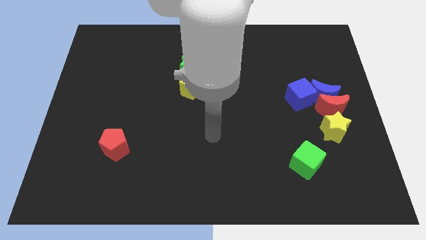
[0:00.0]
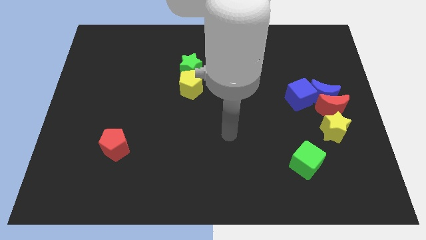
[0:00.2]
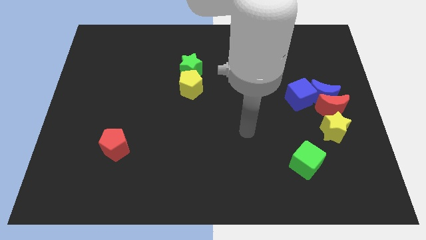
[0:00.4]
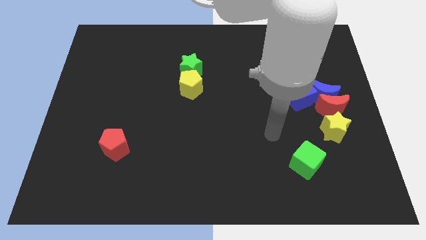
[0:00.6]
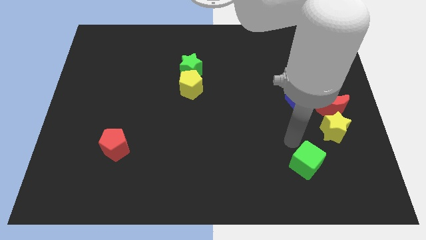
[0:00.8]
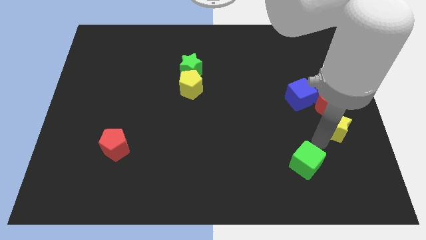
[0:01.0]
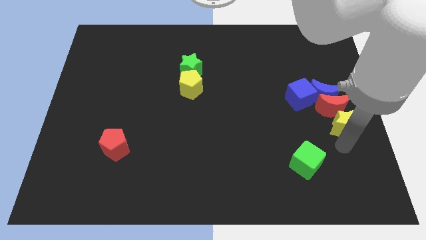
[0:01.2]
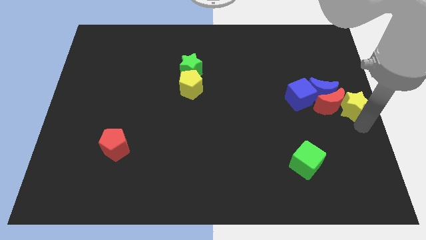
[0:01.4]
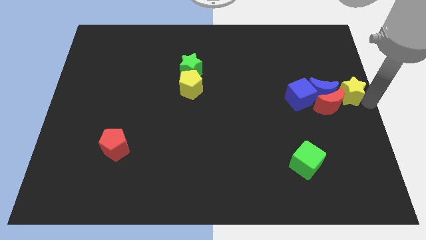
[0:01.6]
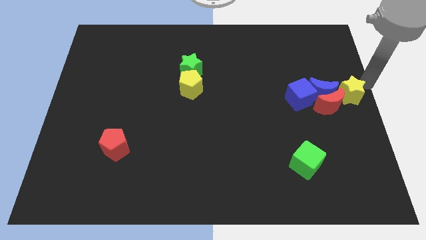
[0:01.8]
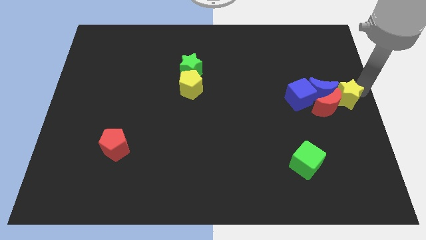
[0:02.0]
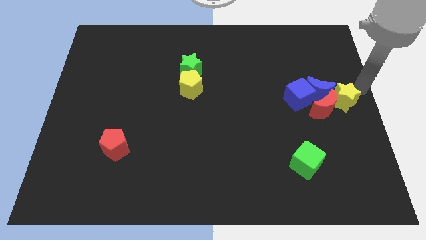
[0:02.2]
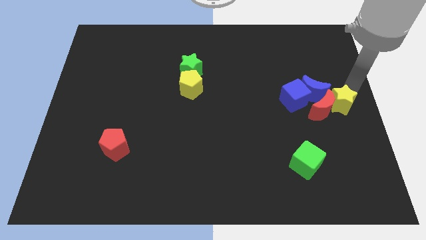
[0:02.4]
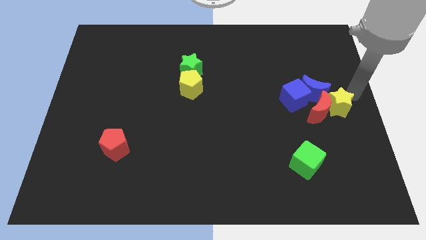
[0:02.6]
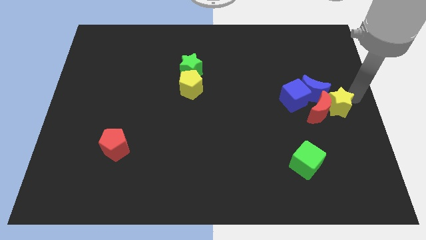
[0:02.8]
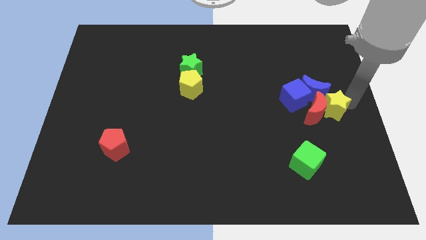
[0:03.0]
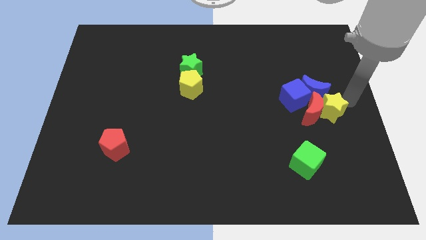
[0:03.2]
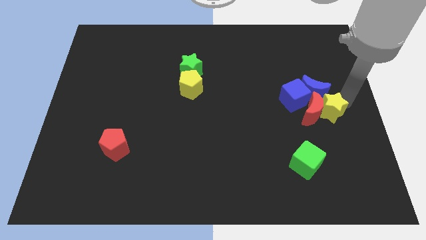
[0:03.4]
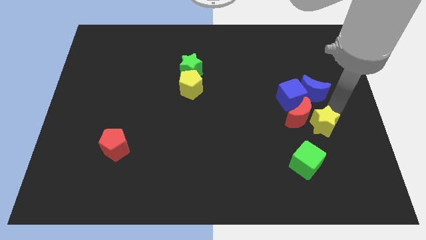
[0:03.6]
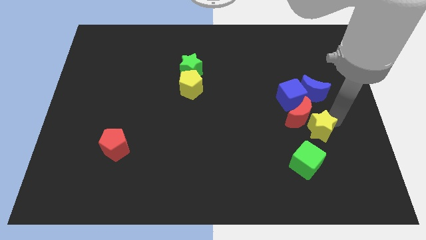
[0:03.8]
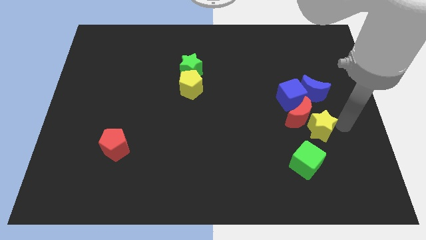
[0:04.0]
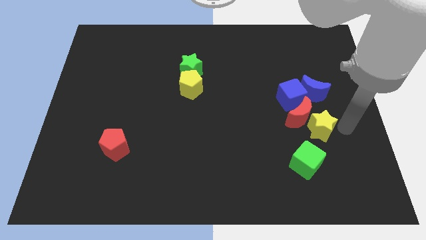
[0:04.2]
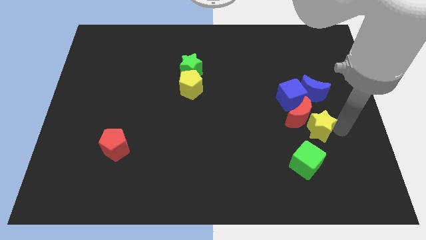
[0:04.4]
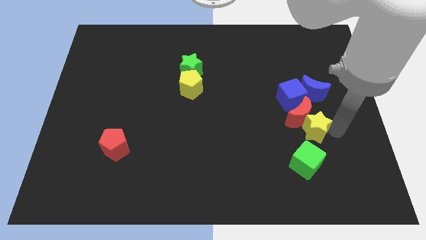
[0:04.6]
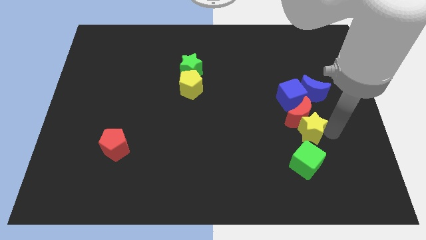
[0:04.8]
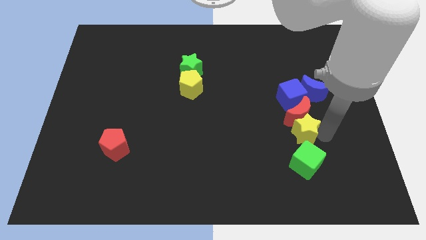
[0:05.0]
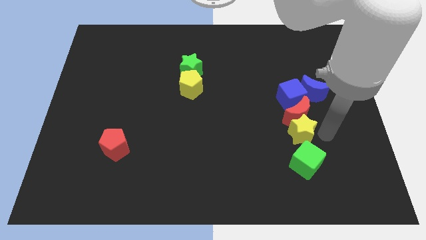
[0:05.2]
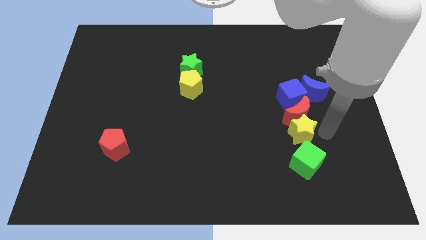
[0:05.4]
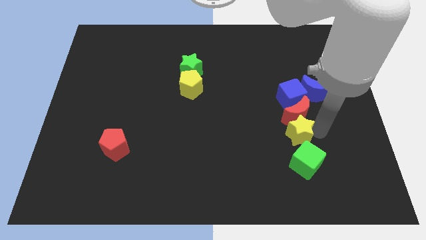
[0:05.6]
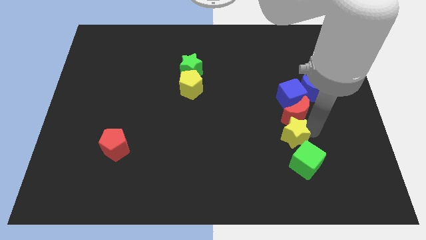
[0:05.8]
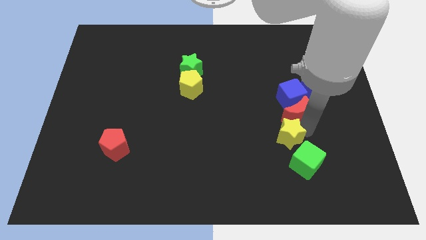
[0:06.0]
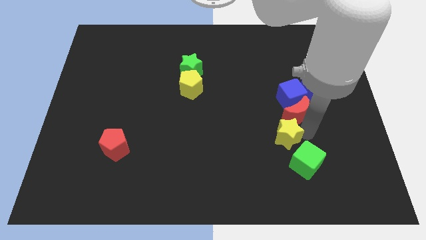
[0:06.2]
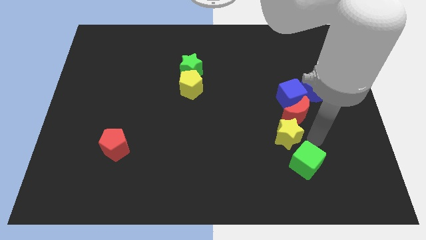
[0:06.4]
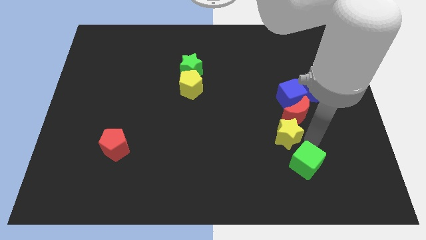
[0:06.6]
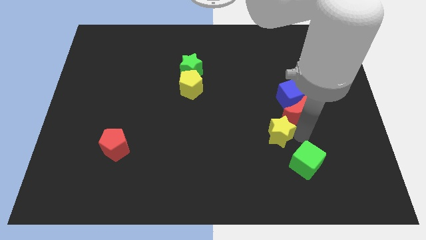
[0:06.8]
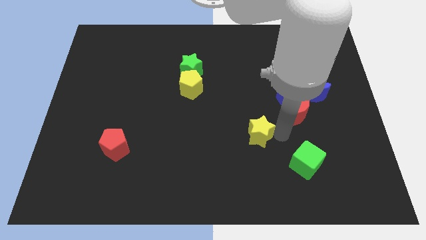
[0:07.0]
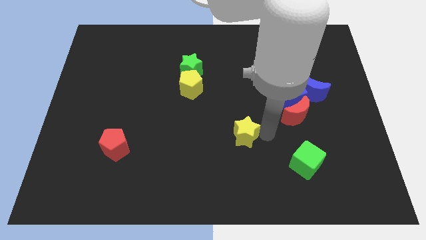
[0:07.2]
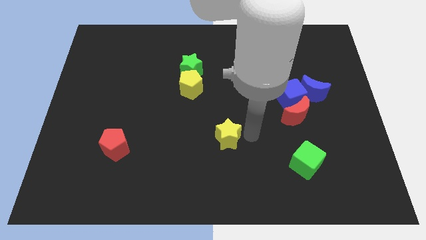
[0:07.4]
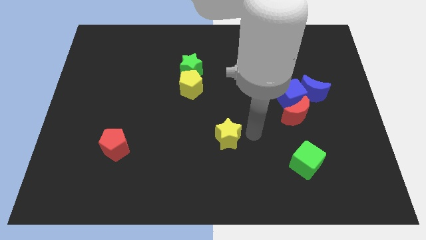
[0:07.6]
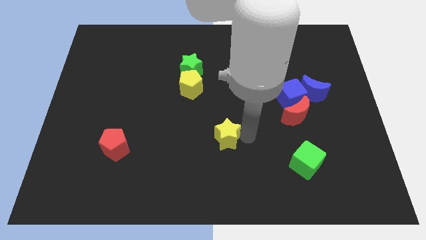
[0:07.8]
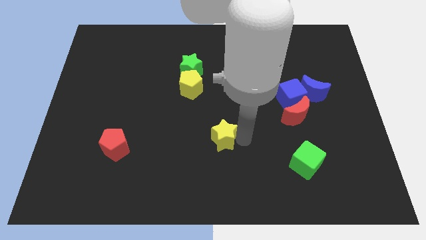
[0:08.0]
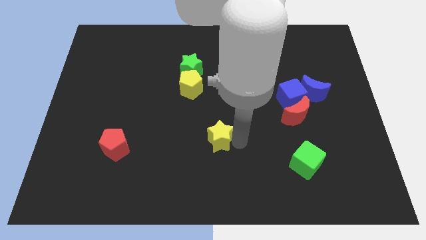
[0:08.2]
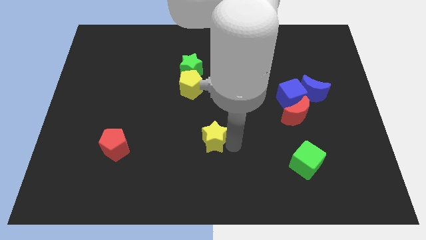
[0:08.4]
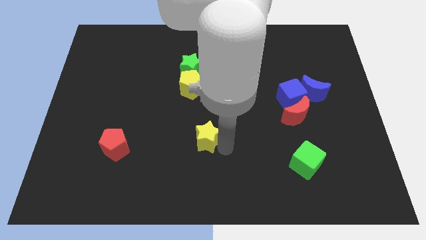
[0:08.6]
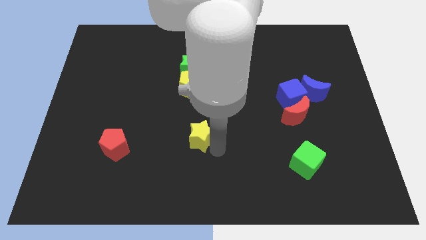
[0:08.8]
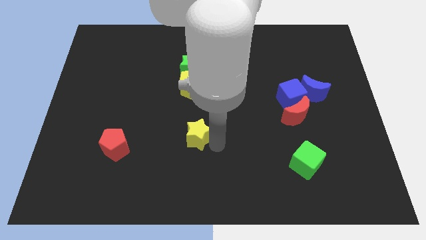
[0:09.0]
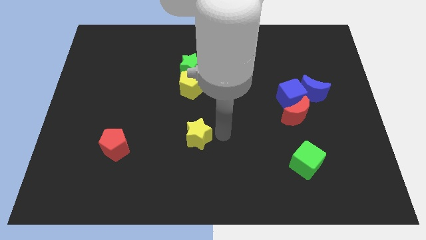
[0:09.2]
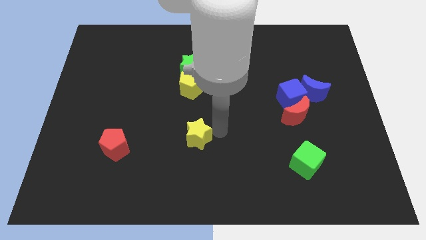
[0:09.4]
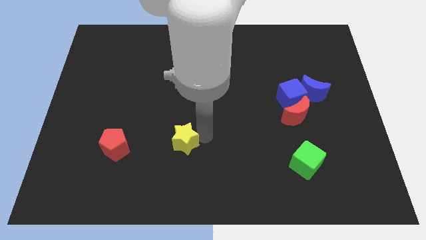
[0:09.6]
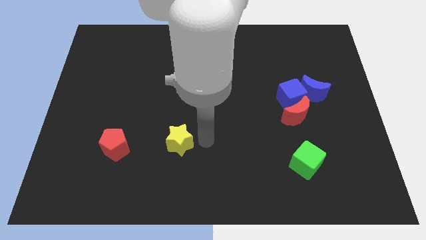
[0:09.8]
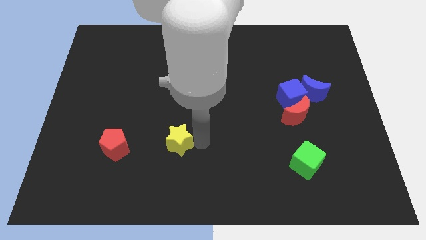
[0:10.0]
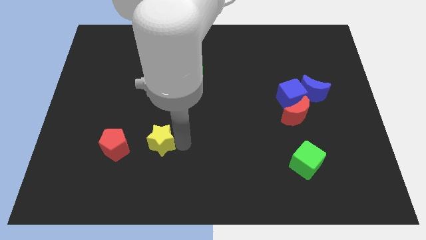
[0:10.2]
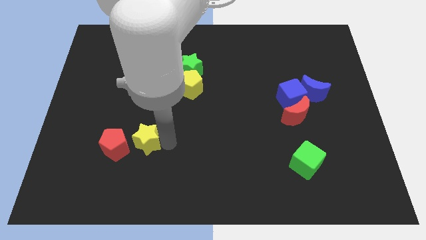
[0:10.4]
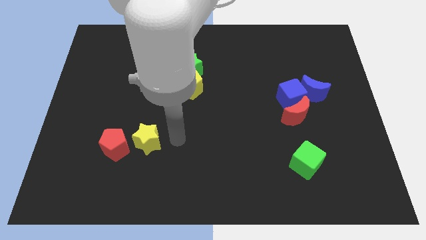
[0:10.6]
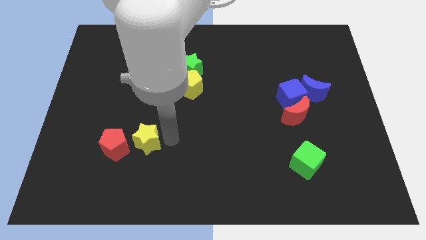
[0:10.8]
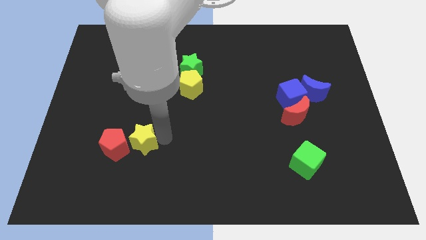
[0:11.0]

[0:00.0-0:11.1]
move the yellow star to the red pentagon

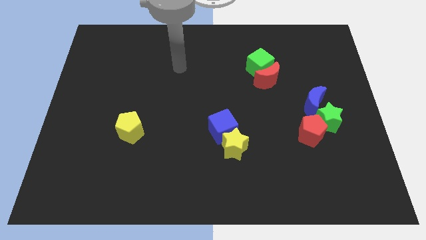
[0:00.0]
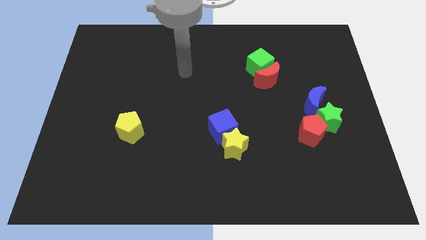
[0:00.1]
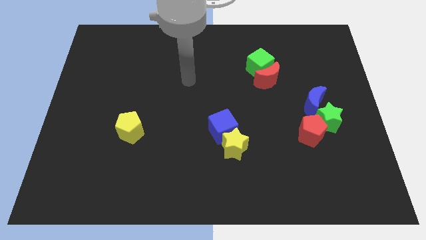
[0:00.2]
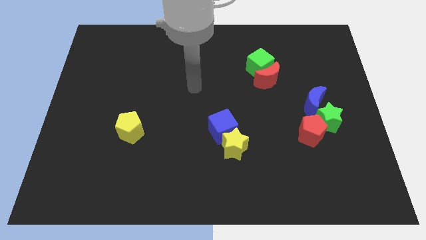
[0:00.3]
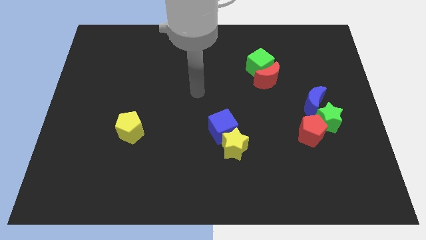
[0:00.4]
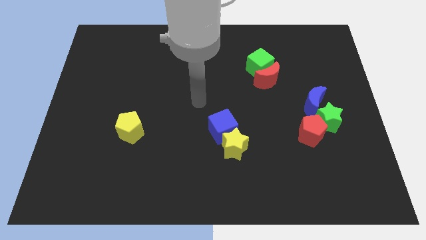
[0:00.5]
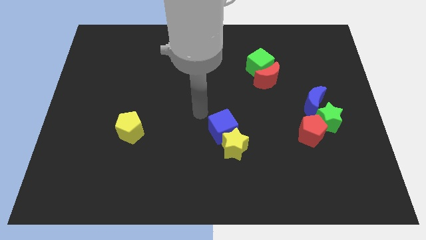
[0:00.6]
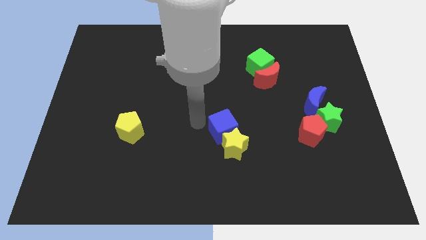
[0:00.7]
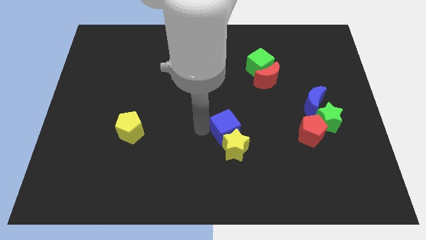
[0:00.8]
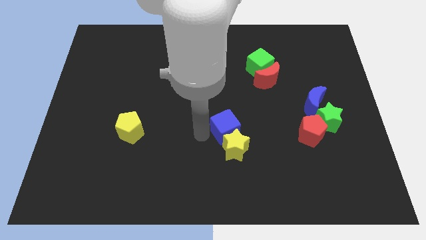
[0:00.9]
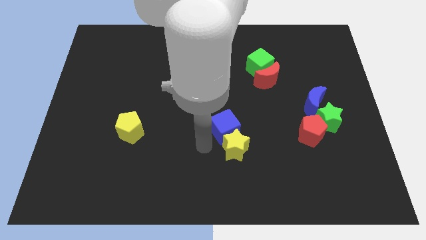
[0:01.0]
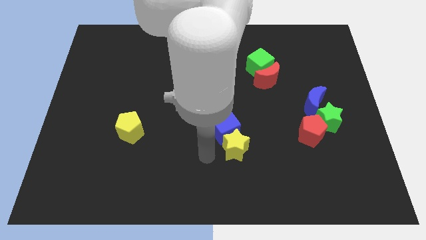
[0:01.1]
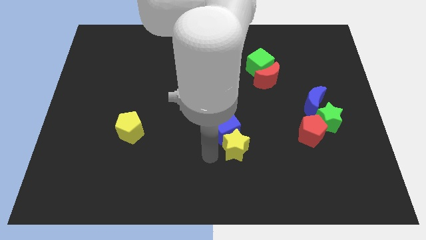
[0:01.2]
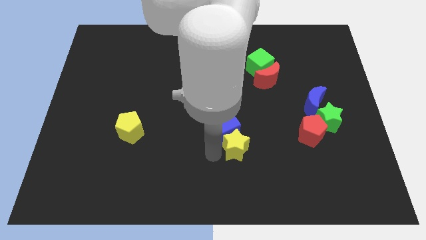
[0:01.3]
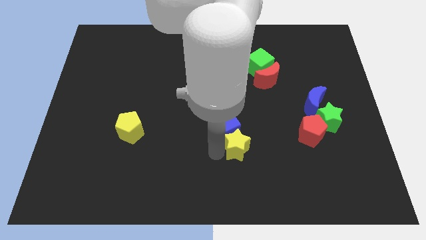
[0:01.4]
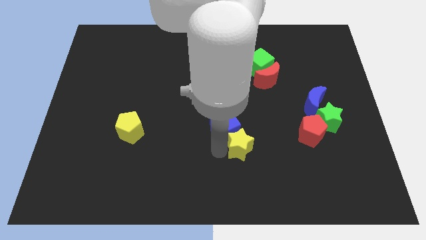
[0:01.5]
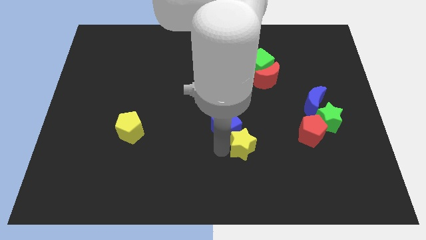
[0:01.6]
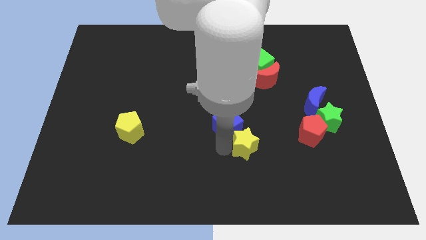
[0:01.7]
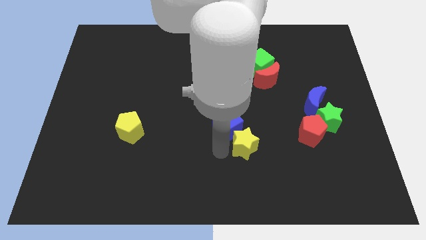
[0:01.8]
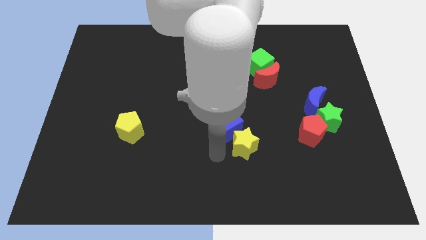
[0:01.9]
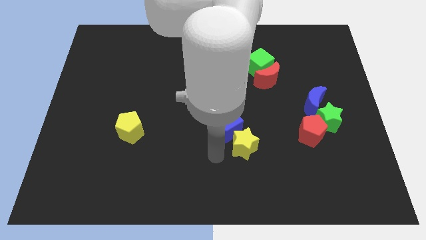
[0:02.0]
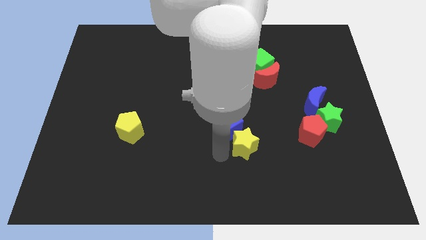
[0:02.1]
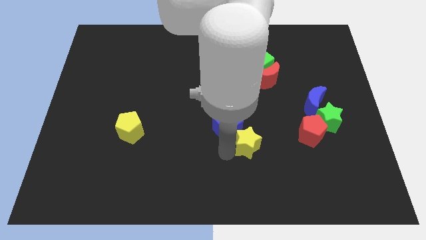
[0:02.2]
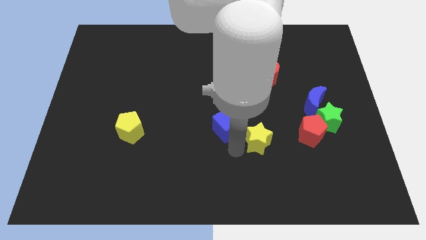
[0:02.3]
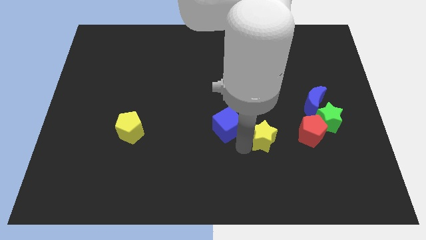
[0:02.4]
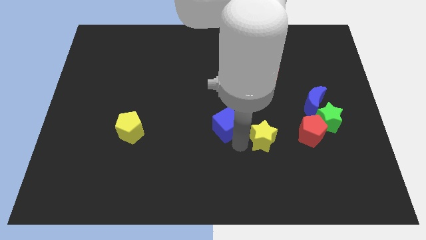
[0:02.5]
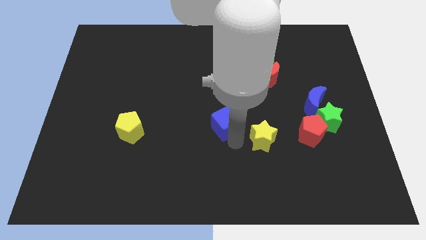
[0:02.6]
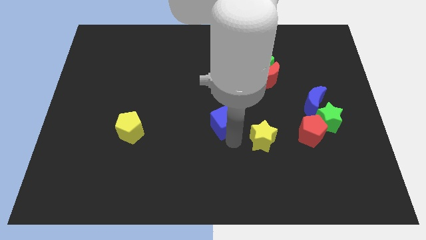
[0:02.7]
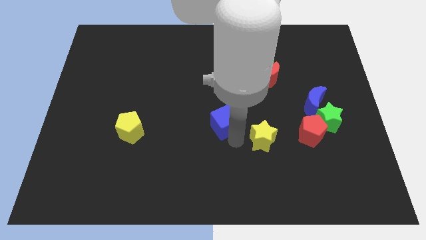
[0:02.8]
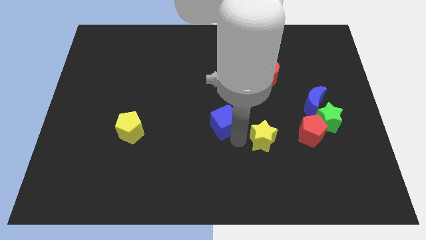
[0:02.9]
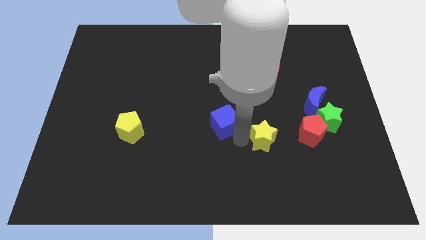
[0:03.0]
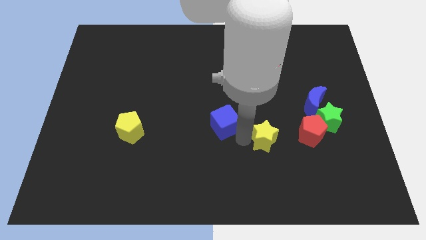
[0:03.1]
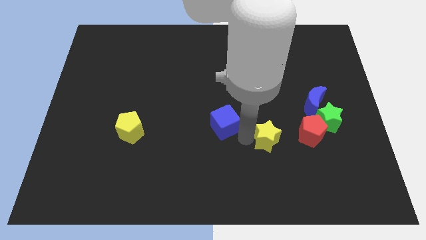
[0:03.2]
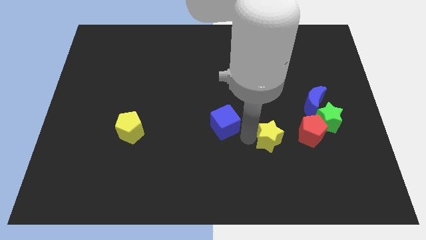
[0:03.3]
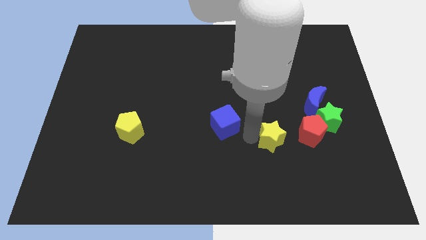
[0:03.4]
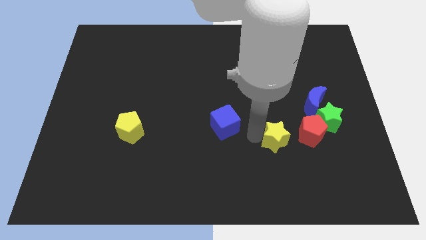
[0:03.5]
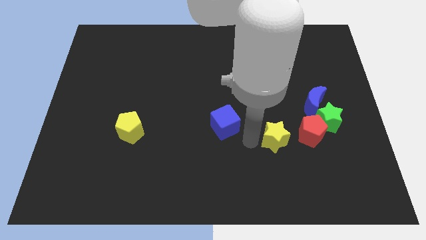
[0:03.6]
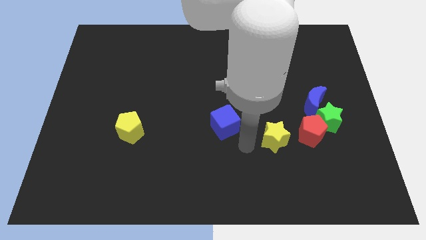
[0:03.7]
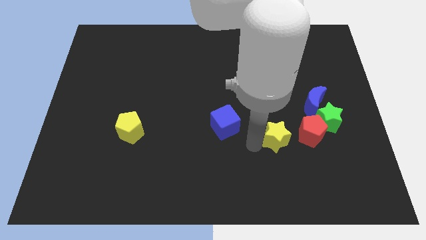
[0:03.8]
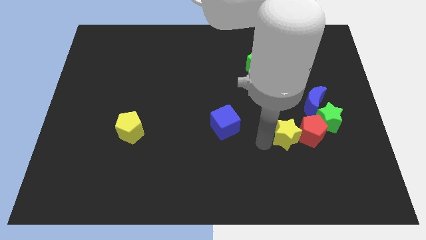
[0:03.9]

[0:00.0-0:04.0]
put the yellow star close to the red pentagon
